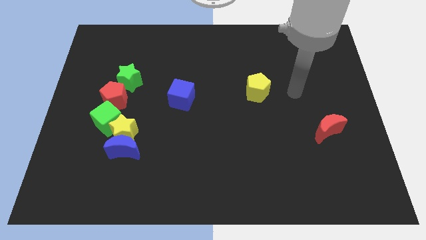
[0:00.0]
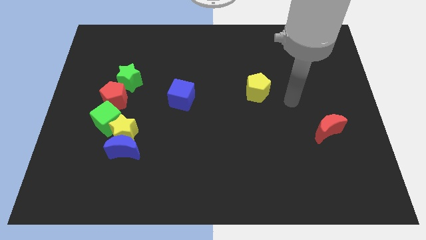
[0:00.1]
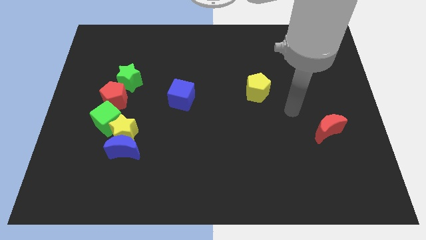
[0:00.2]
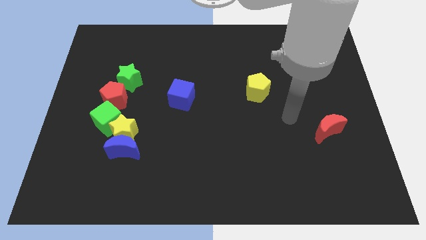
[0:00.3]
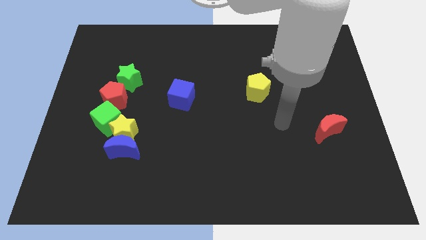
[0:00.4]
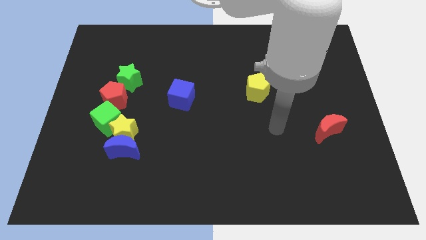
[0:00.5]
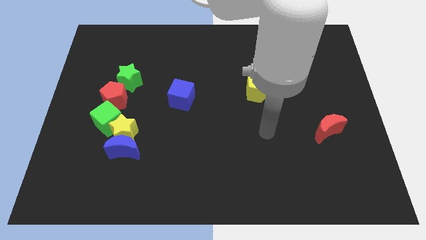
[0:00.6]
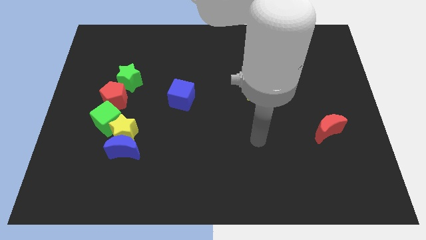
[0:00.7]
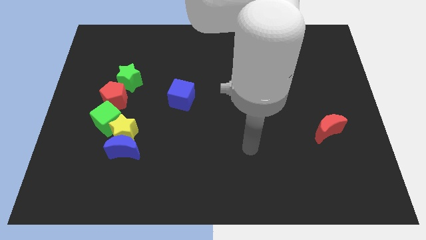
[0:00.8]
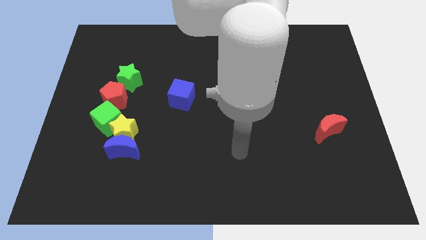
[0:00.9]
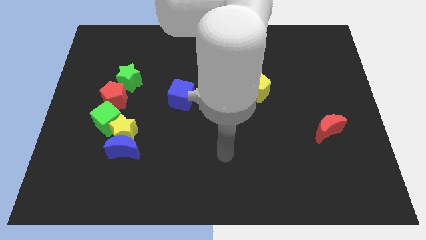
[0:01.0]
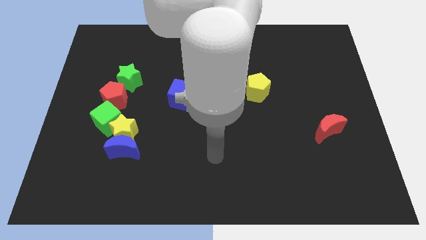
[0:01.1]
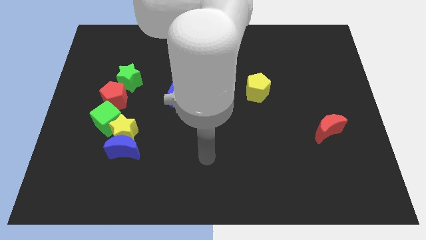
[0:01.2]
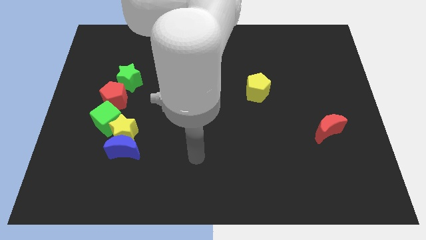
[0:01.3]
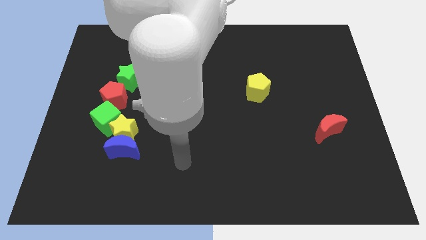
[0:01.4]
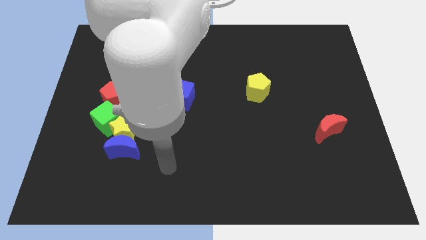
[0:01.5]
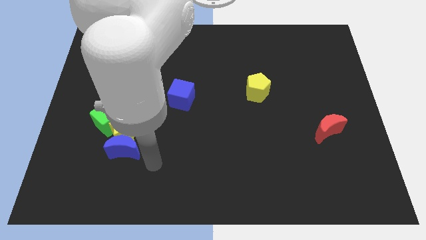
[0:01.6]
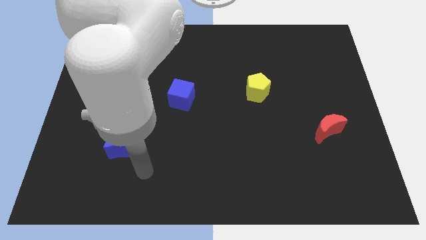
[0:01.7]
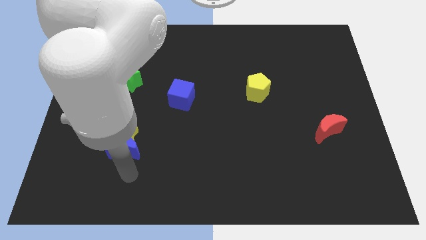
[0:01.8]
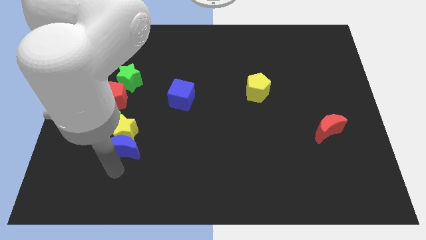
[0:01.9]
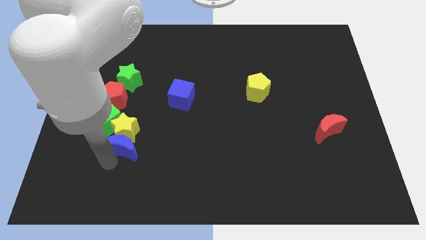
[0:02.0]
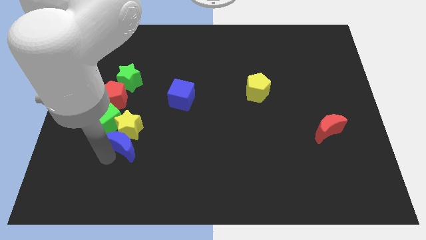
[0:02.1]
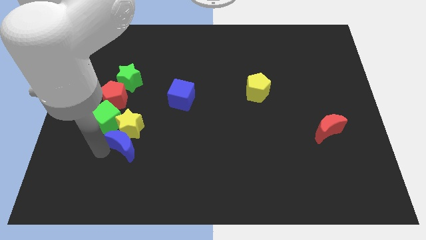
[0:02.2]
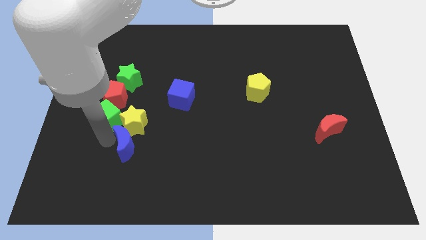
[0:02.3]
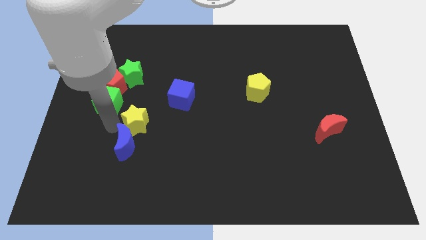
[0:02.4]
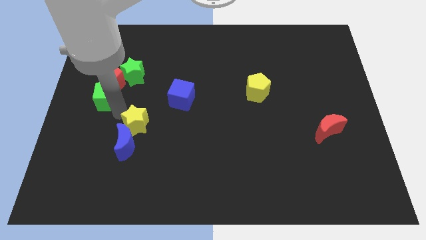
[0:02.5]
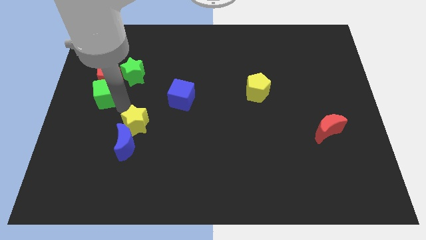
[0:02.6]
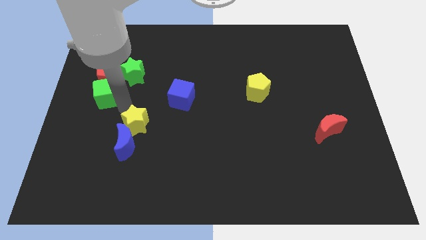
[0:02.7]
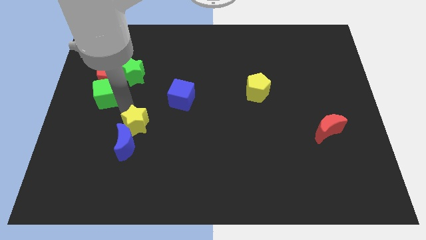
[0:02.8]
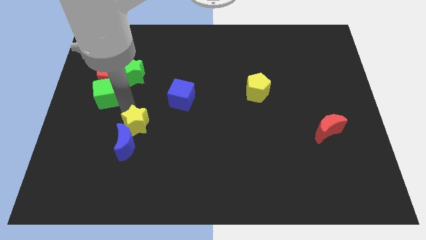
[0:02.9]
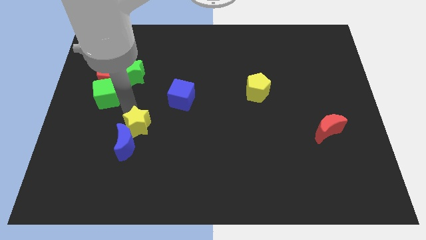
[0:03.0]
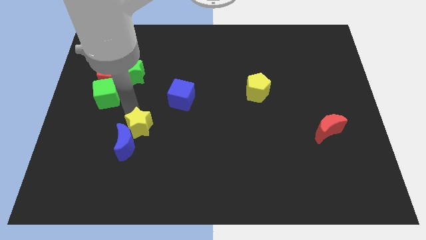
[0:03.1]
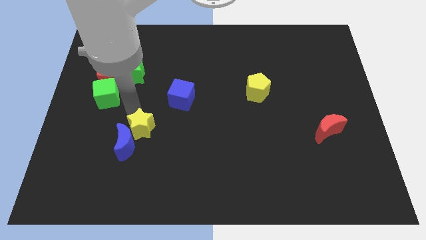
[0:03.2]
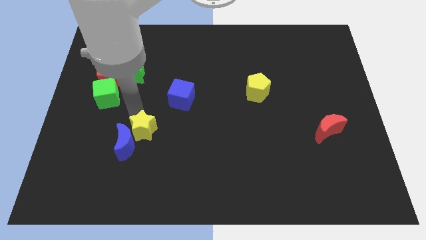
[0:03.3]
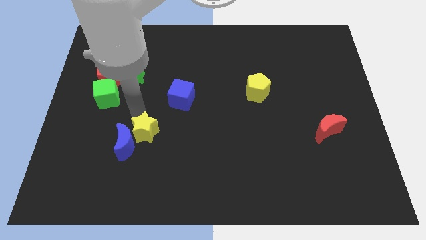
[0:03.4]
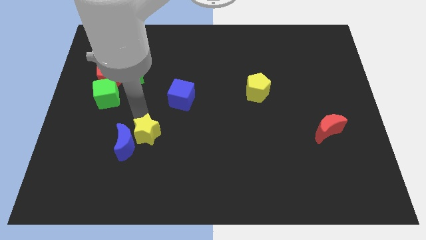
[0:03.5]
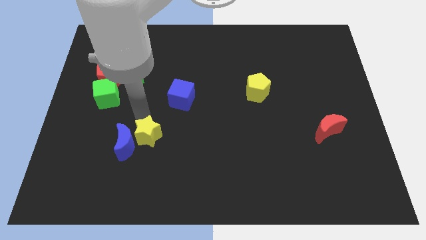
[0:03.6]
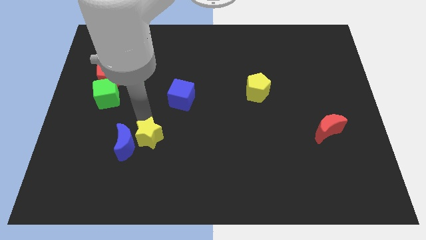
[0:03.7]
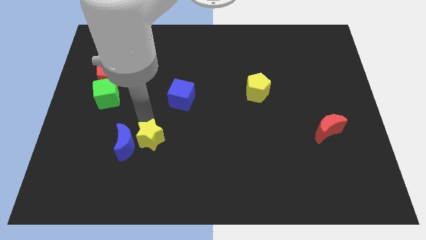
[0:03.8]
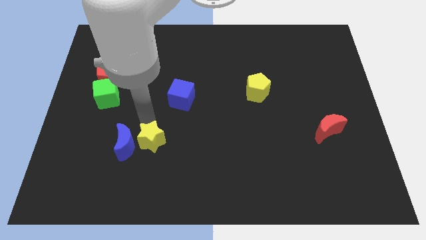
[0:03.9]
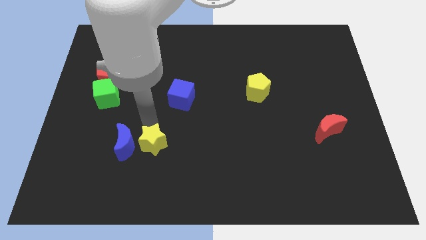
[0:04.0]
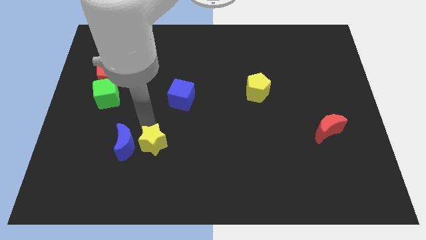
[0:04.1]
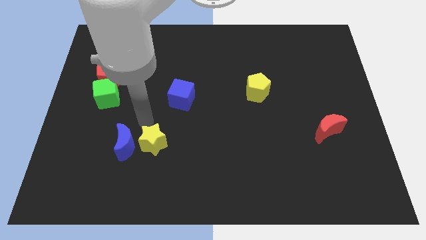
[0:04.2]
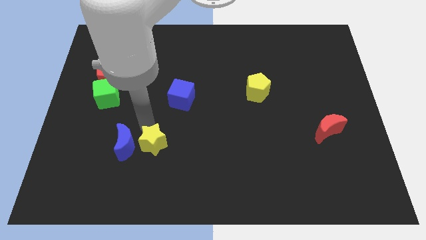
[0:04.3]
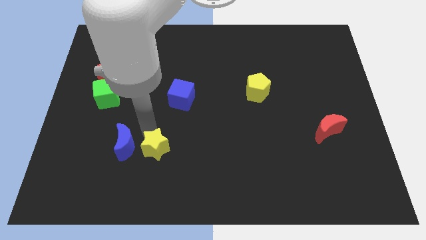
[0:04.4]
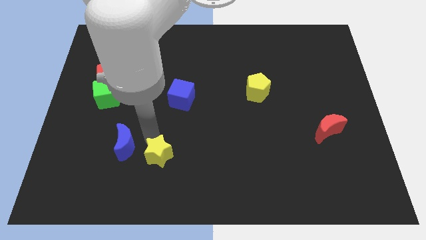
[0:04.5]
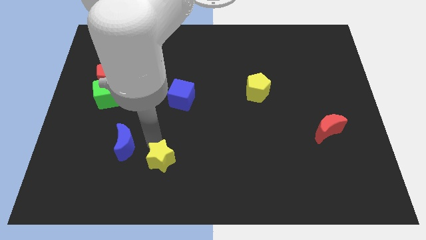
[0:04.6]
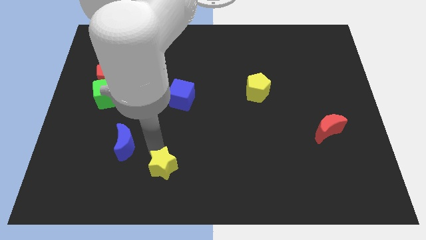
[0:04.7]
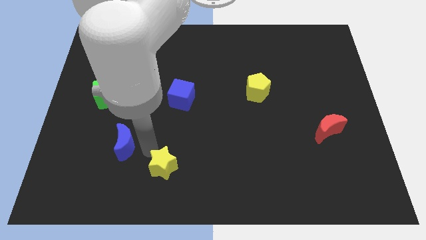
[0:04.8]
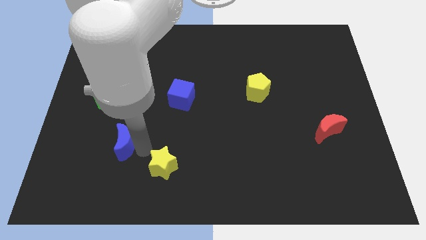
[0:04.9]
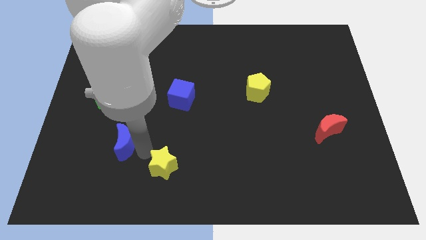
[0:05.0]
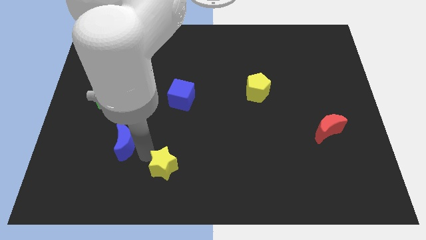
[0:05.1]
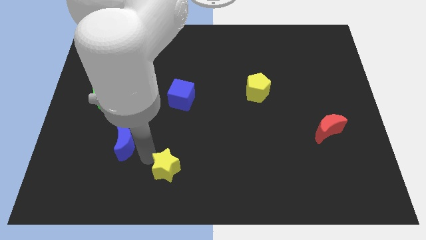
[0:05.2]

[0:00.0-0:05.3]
put the yellow star to the bottom

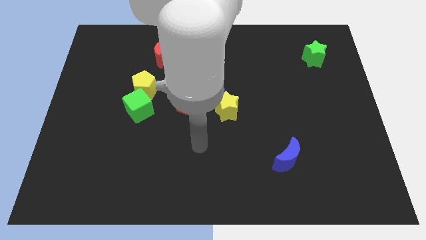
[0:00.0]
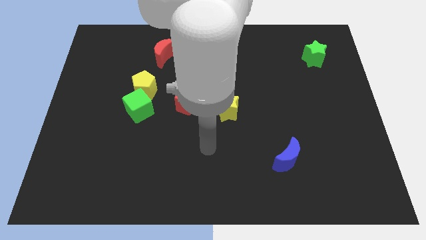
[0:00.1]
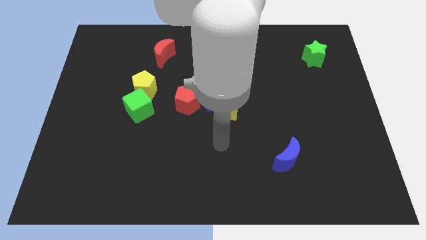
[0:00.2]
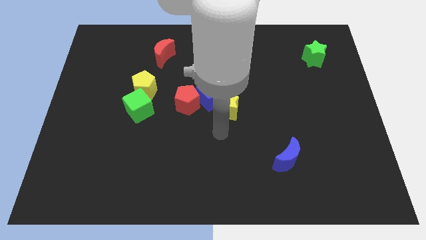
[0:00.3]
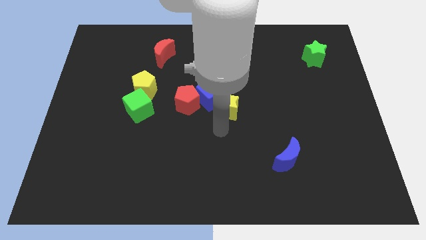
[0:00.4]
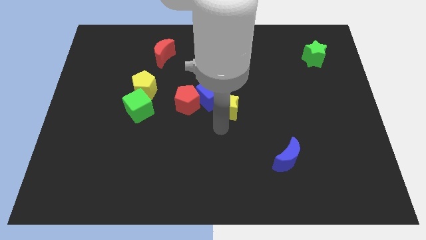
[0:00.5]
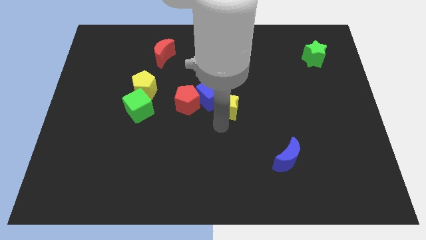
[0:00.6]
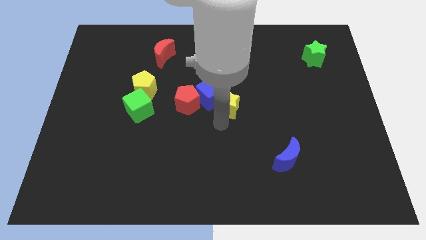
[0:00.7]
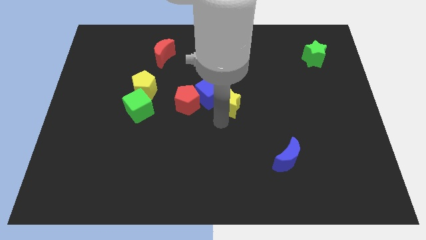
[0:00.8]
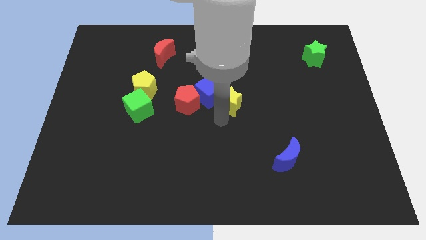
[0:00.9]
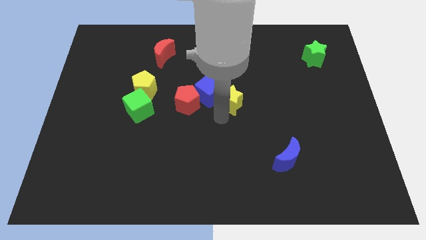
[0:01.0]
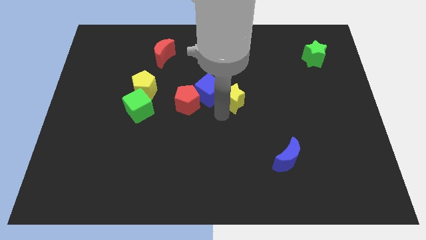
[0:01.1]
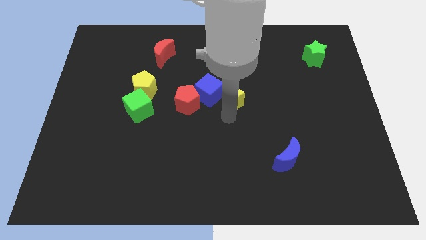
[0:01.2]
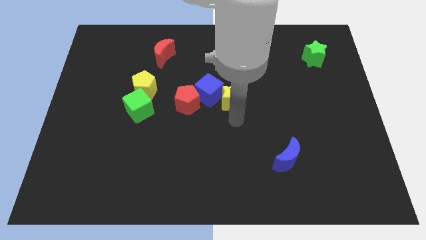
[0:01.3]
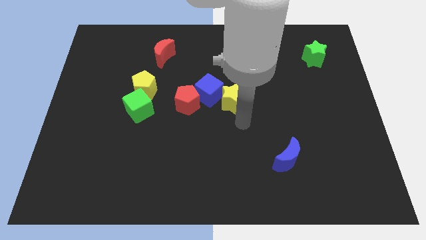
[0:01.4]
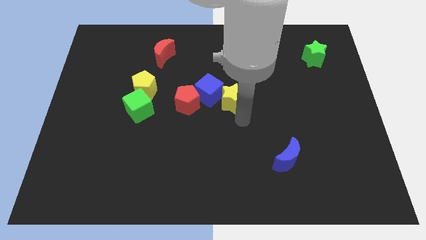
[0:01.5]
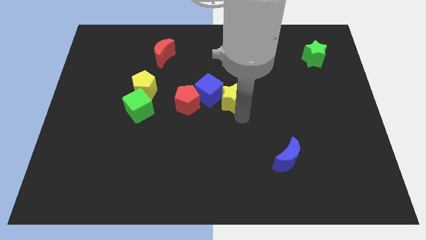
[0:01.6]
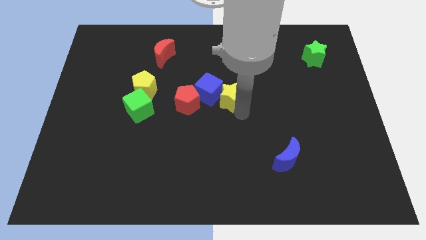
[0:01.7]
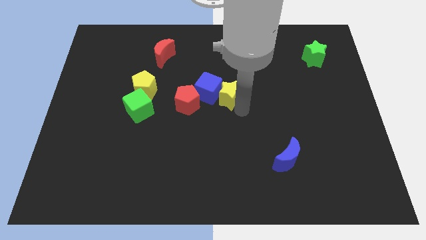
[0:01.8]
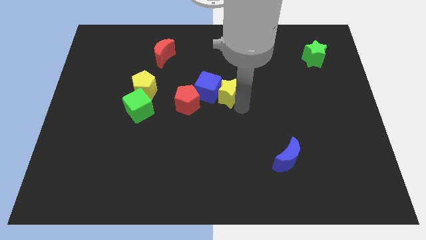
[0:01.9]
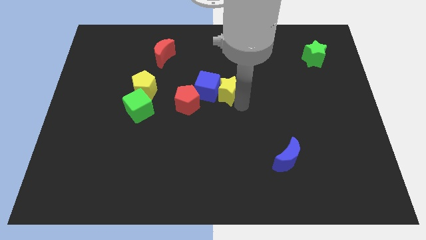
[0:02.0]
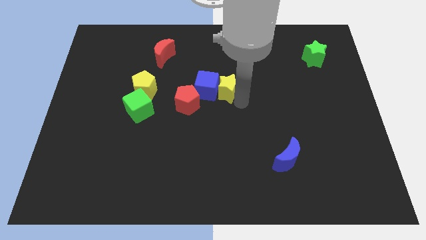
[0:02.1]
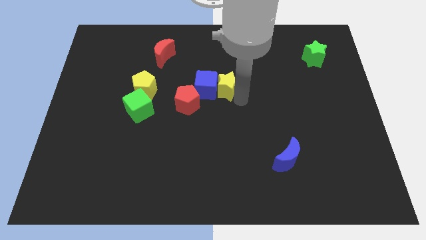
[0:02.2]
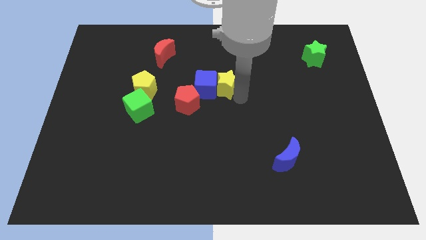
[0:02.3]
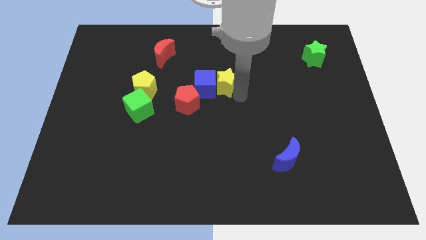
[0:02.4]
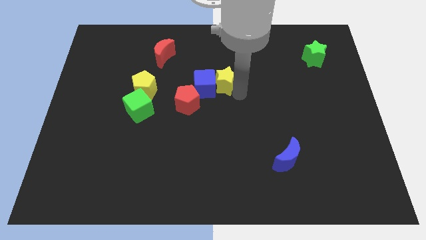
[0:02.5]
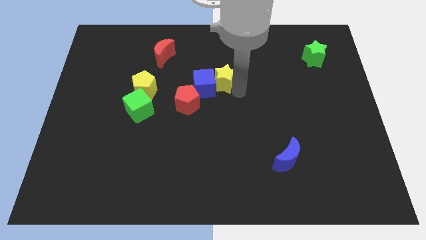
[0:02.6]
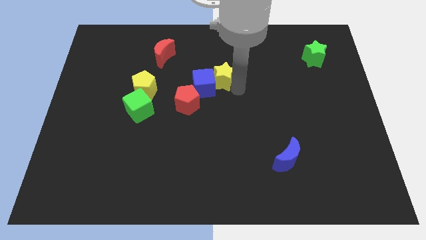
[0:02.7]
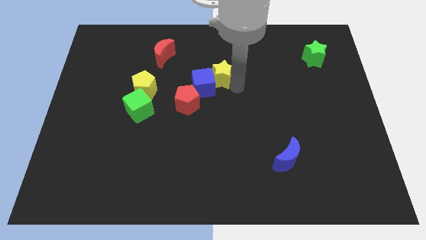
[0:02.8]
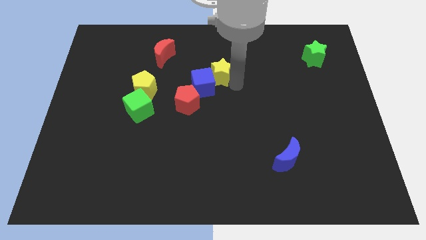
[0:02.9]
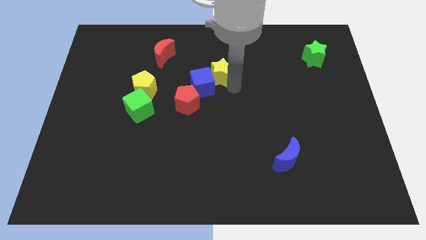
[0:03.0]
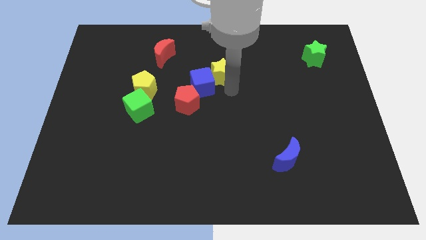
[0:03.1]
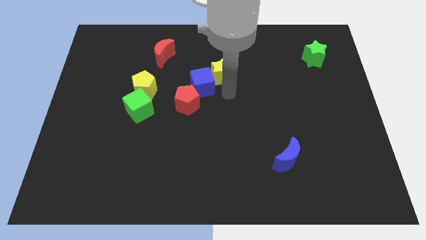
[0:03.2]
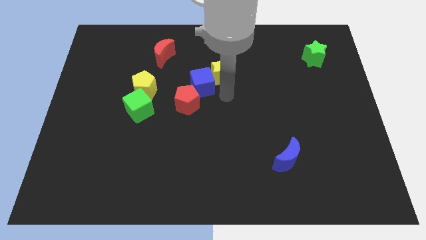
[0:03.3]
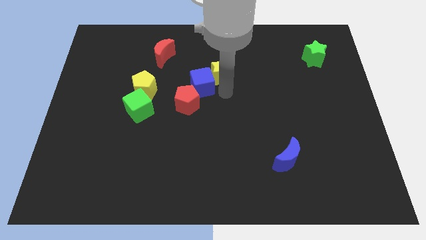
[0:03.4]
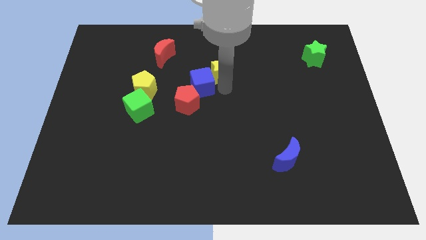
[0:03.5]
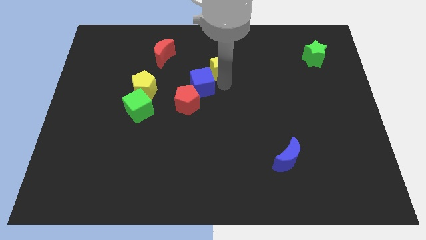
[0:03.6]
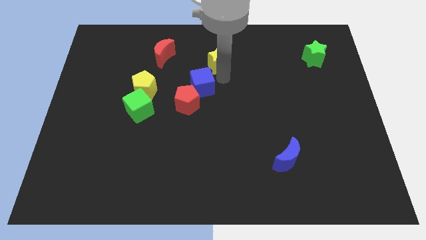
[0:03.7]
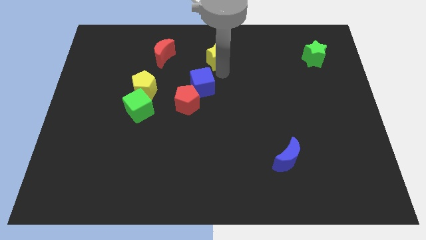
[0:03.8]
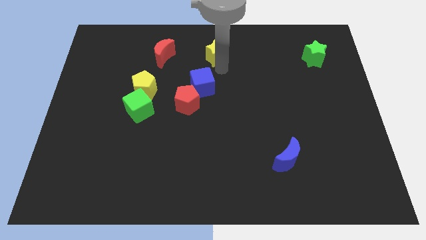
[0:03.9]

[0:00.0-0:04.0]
slide the yellow star to the top side
